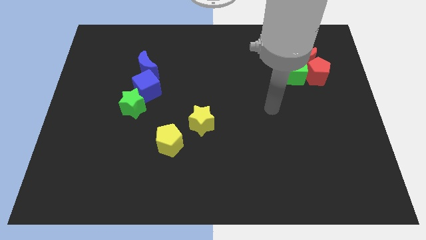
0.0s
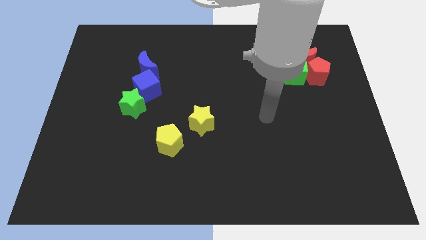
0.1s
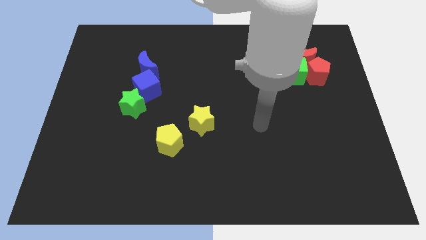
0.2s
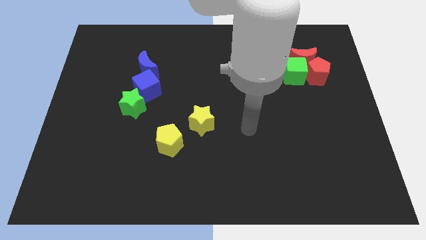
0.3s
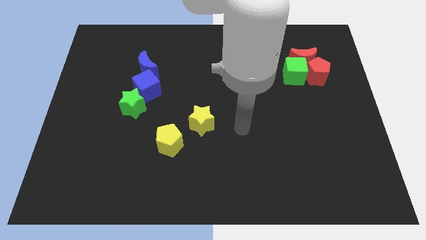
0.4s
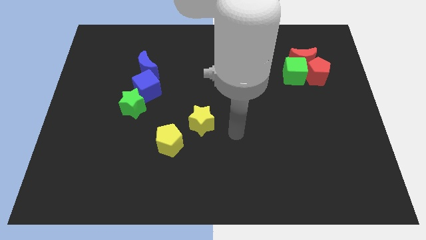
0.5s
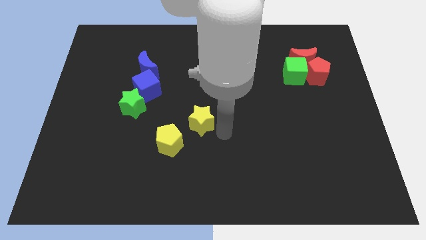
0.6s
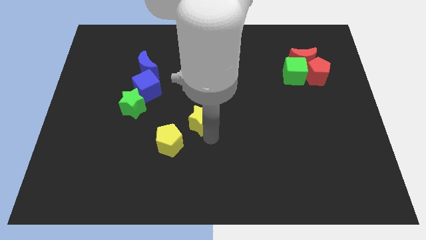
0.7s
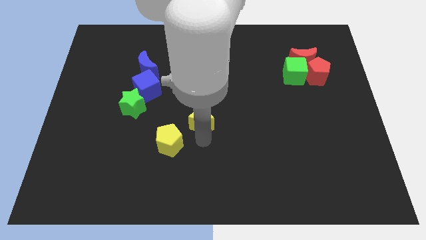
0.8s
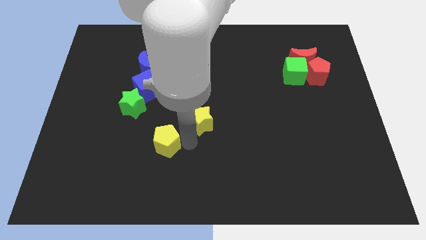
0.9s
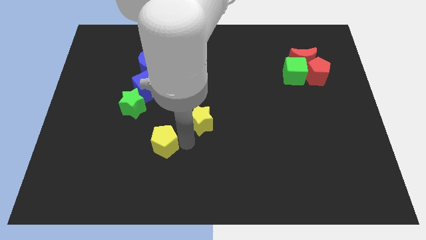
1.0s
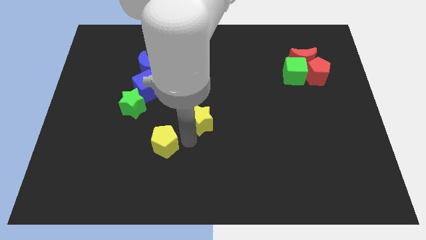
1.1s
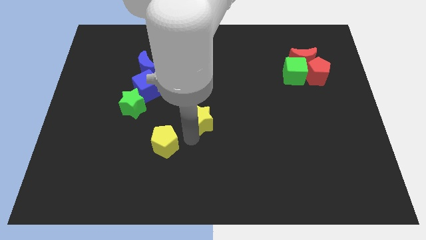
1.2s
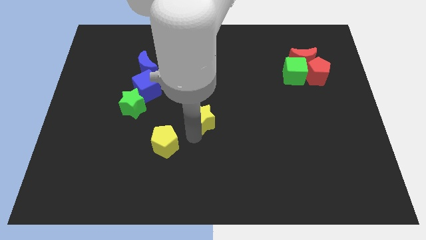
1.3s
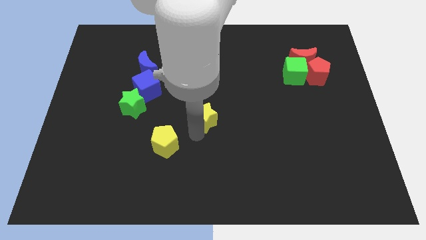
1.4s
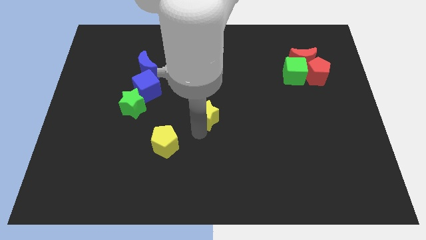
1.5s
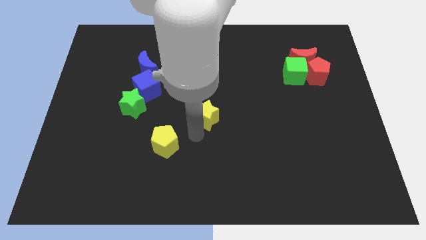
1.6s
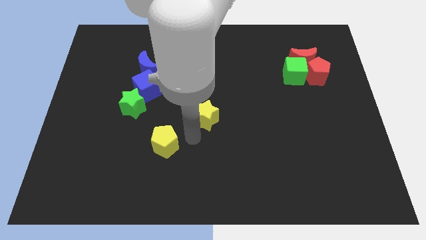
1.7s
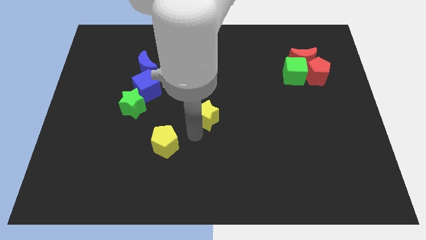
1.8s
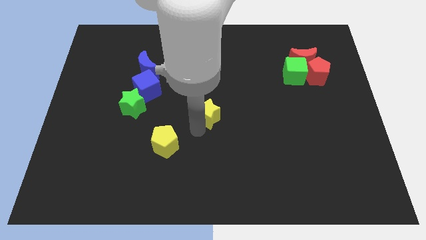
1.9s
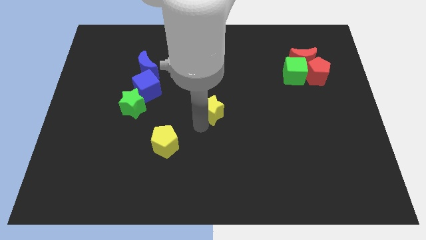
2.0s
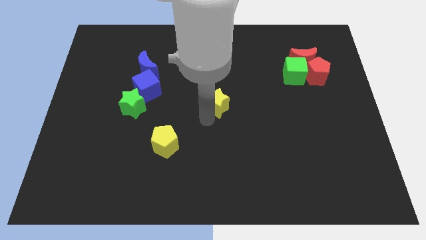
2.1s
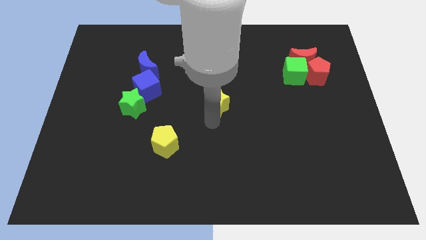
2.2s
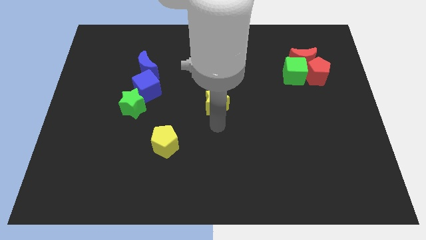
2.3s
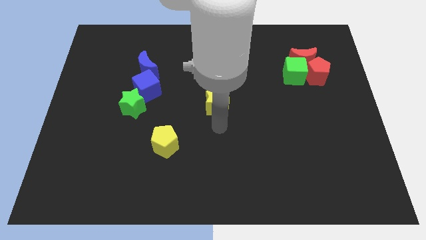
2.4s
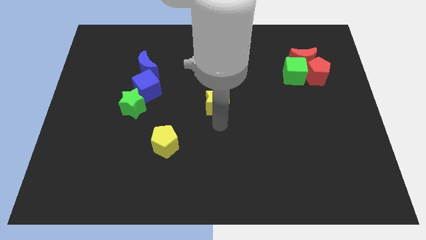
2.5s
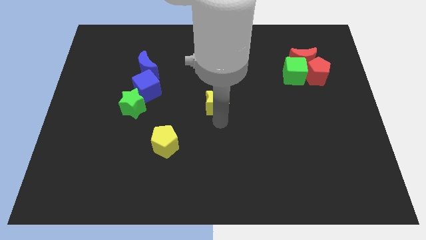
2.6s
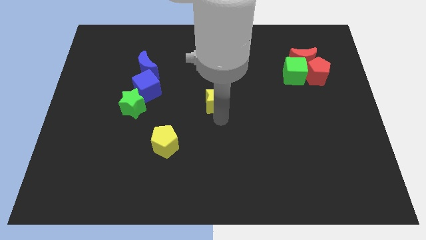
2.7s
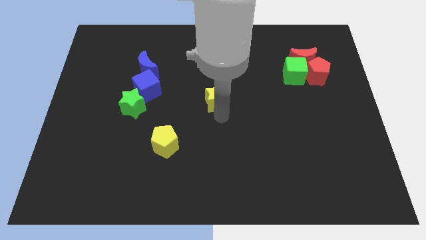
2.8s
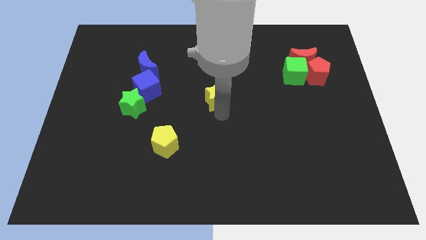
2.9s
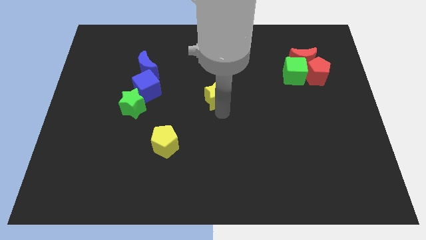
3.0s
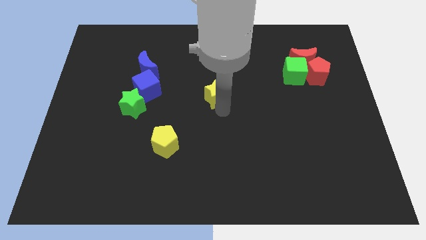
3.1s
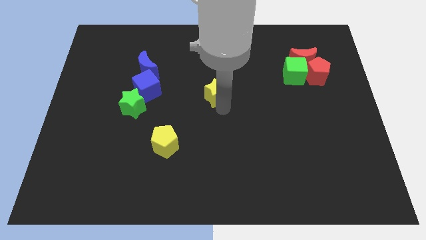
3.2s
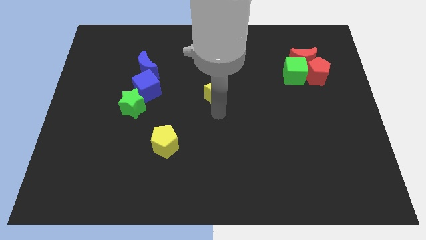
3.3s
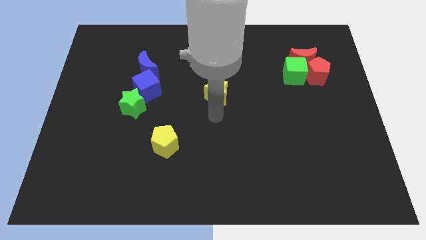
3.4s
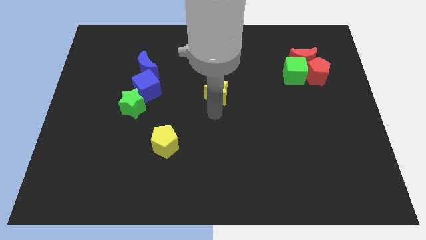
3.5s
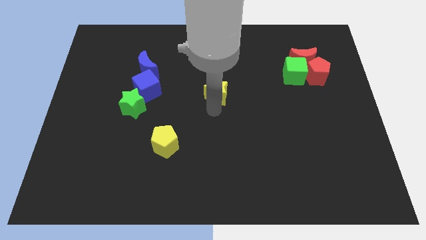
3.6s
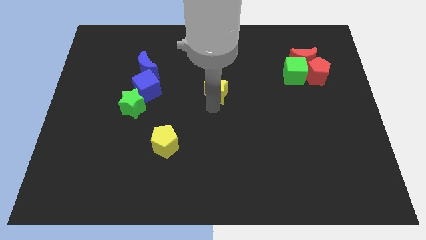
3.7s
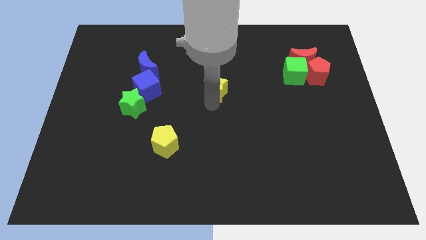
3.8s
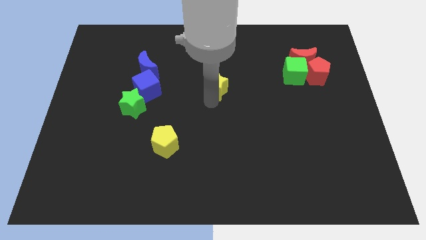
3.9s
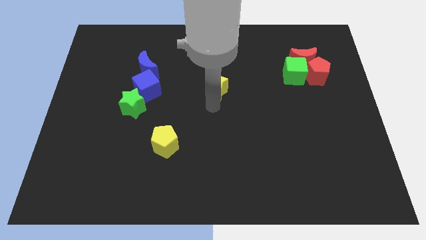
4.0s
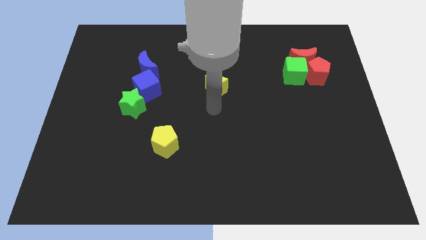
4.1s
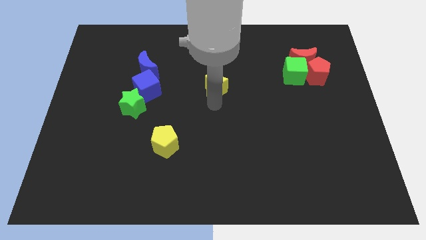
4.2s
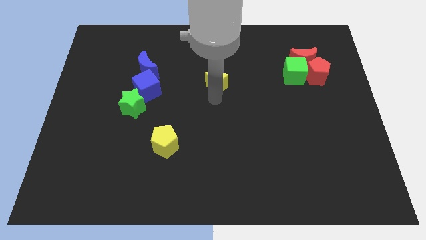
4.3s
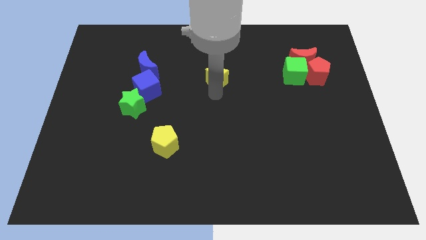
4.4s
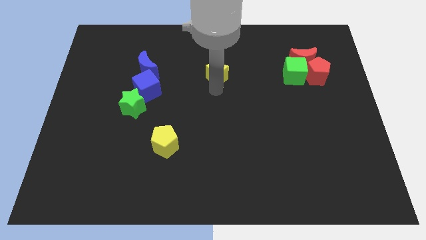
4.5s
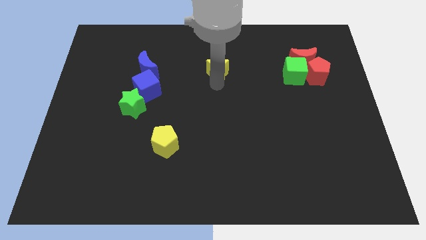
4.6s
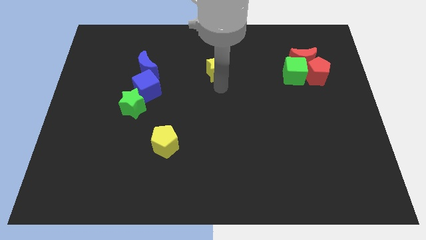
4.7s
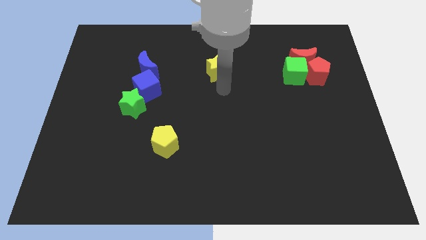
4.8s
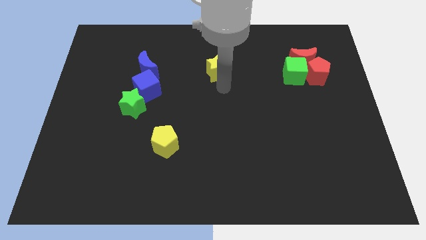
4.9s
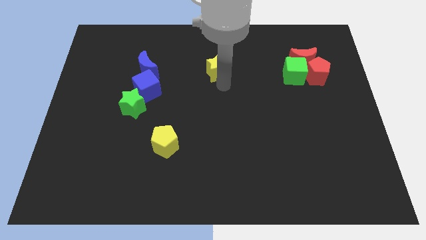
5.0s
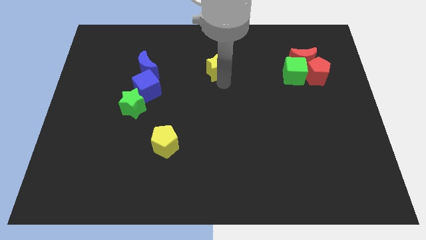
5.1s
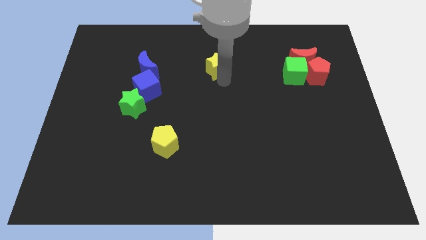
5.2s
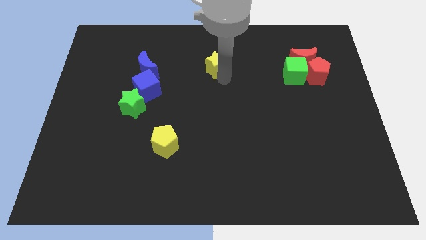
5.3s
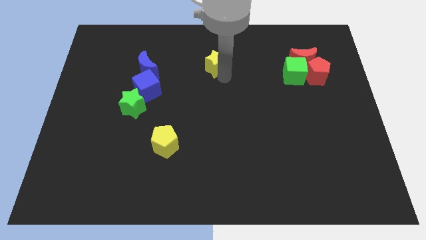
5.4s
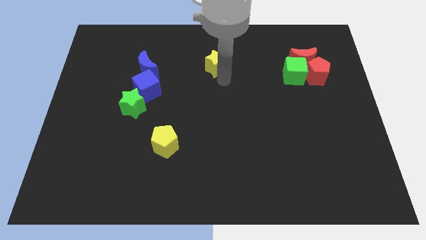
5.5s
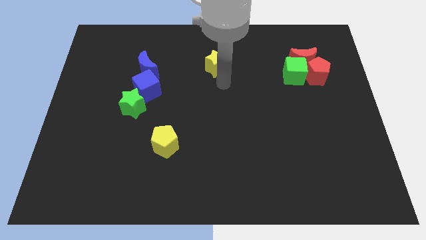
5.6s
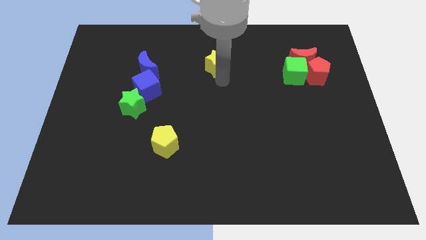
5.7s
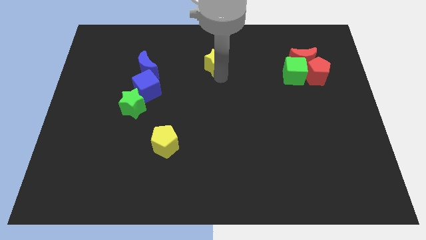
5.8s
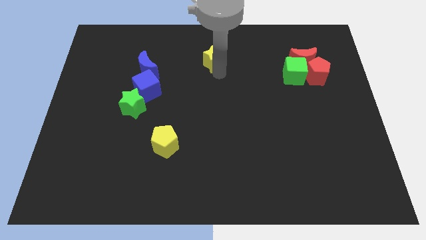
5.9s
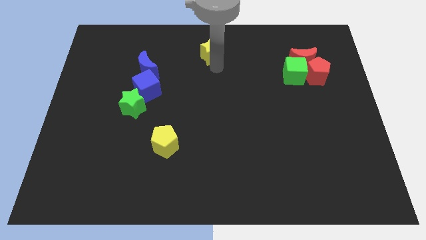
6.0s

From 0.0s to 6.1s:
put the yellow star to the top side
